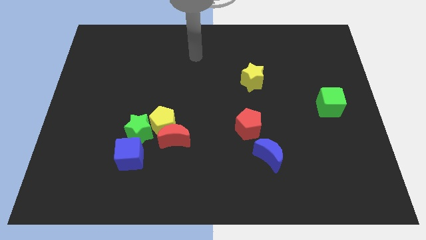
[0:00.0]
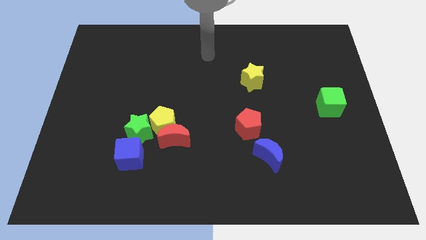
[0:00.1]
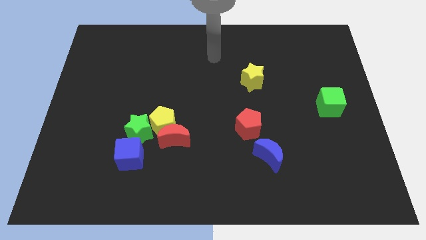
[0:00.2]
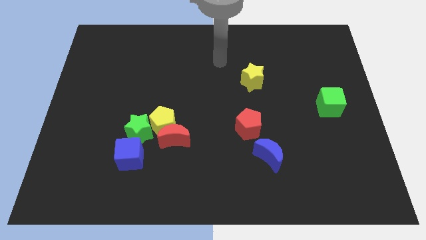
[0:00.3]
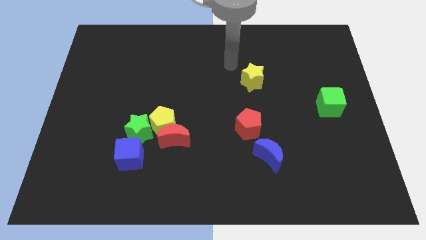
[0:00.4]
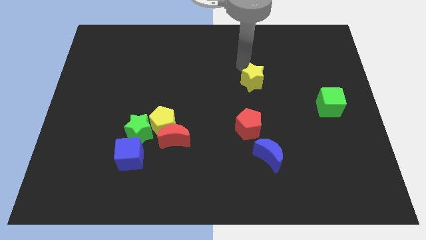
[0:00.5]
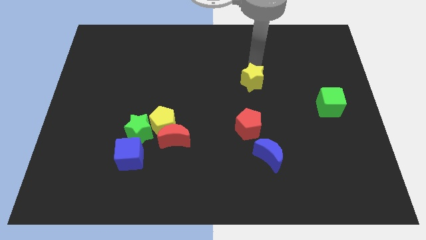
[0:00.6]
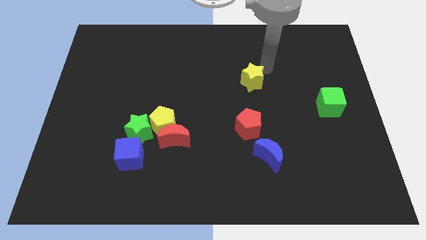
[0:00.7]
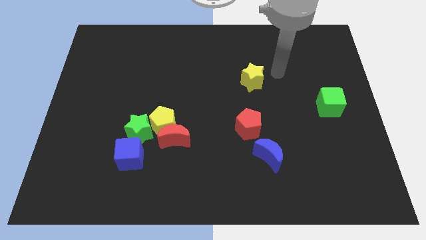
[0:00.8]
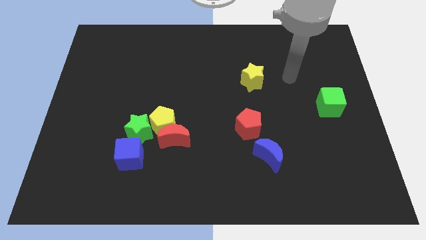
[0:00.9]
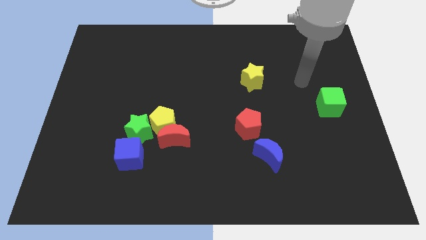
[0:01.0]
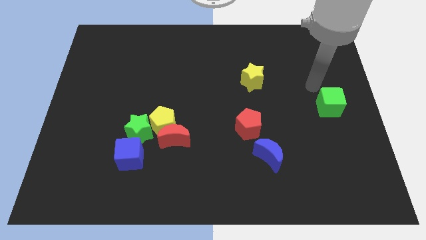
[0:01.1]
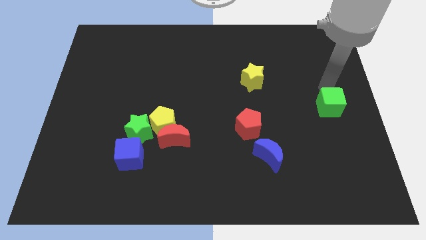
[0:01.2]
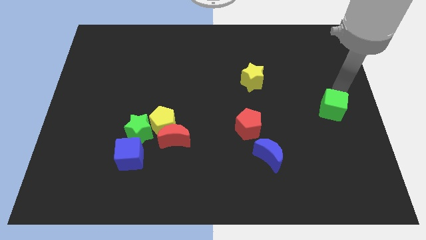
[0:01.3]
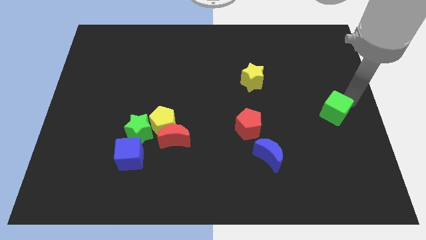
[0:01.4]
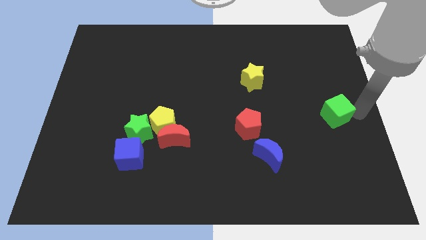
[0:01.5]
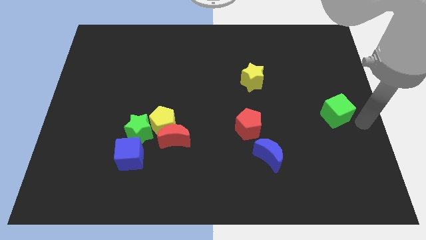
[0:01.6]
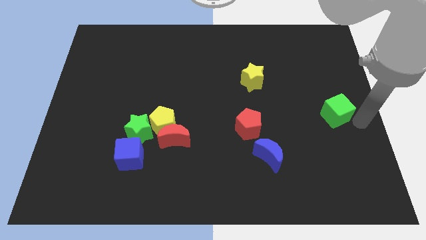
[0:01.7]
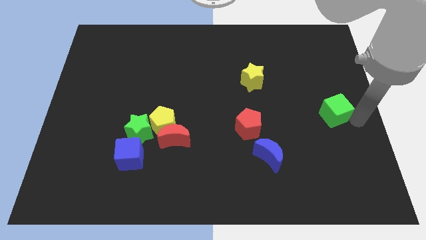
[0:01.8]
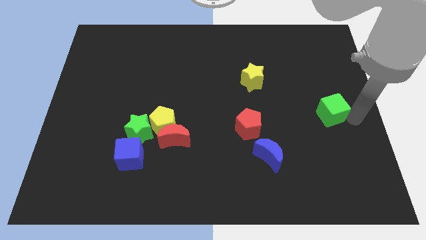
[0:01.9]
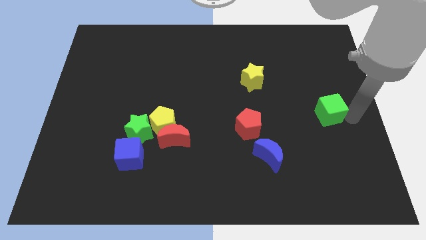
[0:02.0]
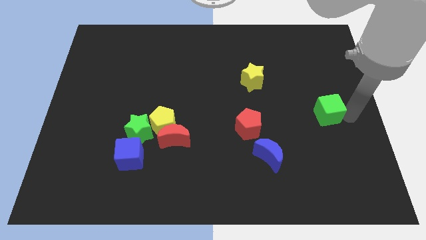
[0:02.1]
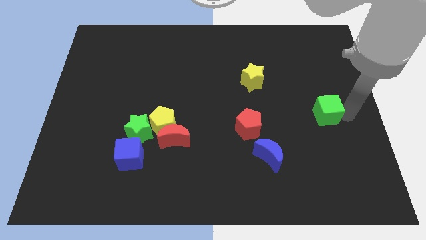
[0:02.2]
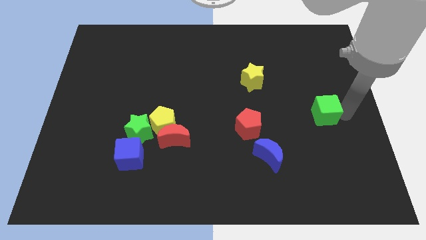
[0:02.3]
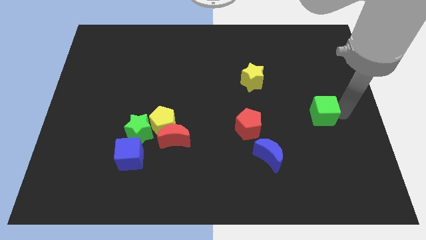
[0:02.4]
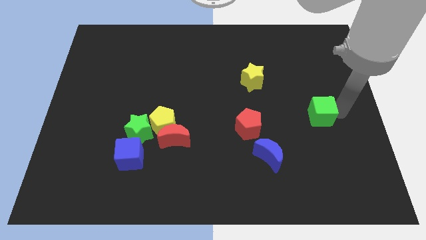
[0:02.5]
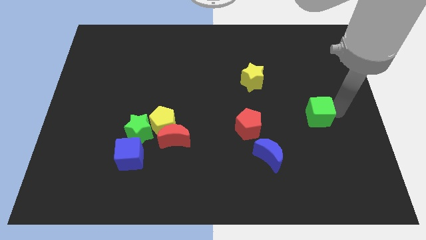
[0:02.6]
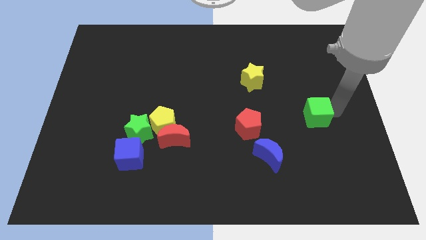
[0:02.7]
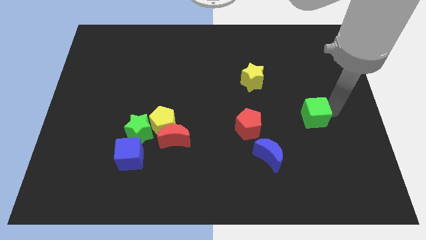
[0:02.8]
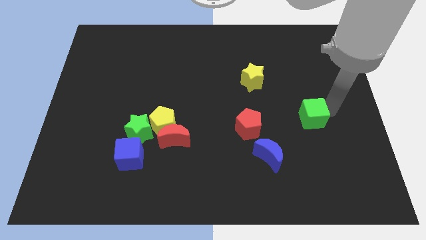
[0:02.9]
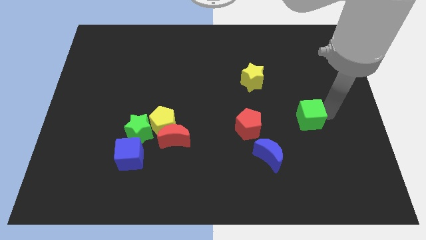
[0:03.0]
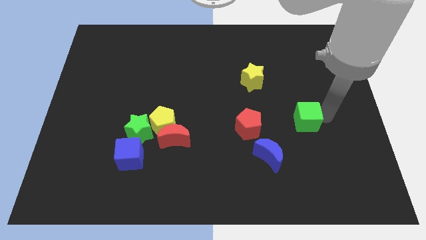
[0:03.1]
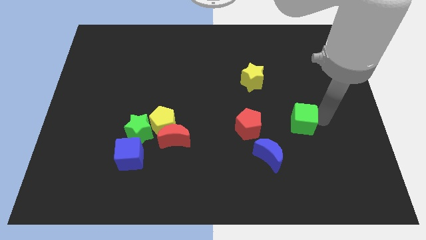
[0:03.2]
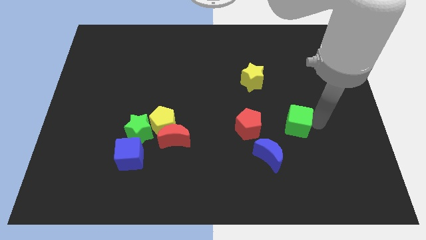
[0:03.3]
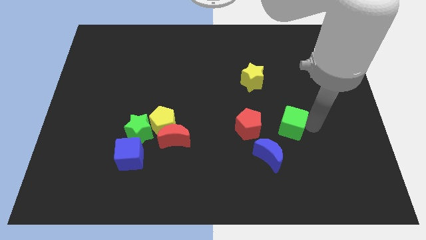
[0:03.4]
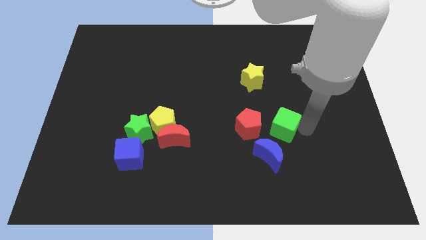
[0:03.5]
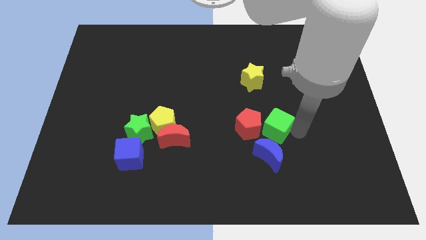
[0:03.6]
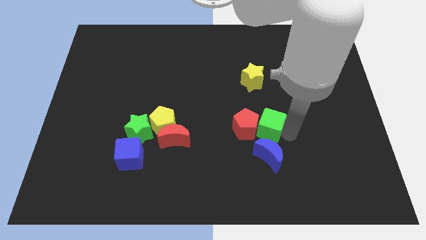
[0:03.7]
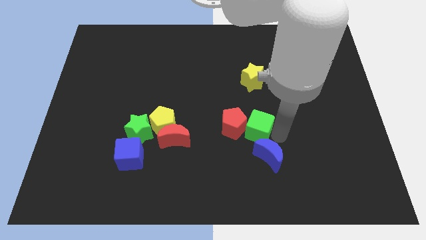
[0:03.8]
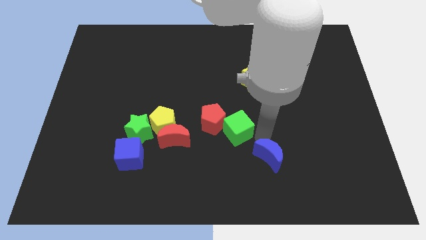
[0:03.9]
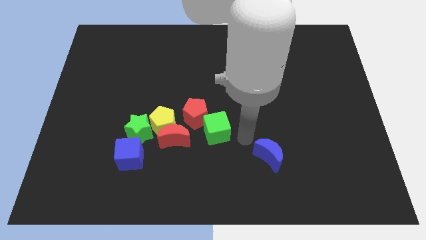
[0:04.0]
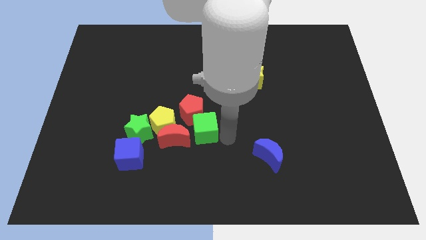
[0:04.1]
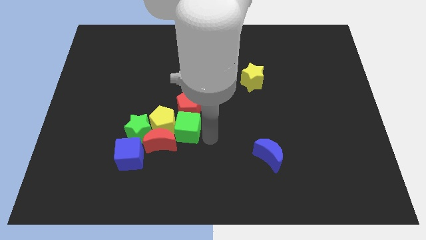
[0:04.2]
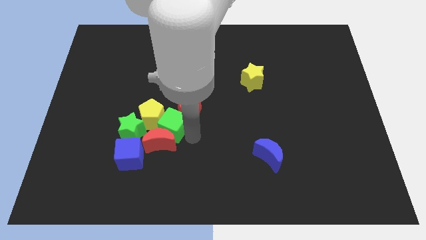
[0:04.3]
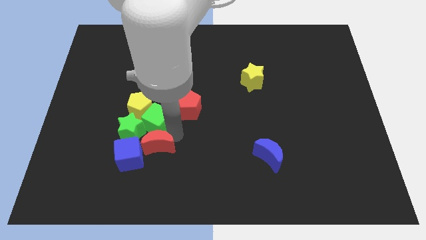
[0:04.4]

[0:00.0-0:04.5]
move the green cube next to the green star

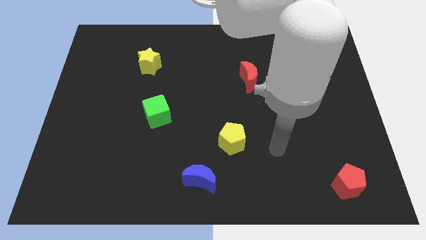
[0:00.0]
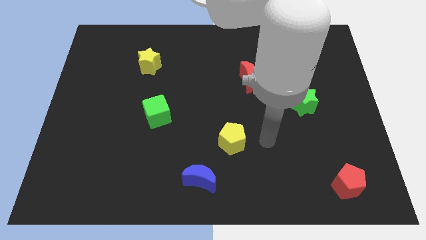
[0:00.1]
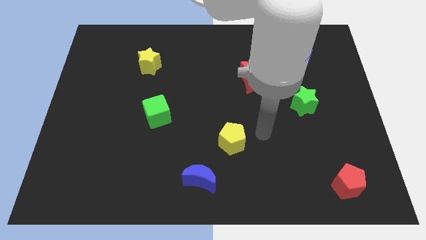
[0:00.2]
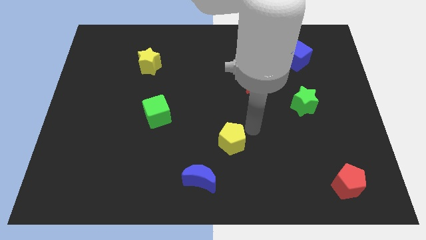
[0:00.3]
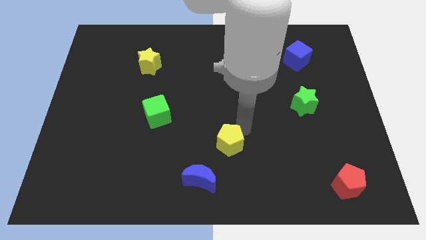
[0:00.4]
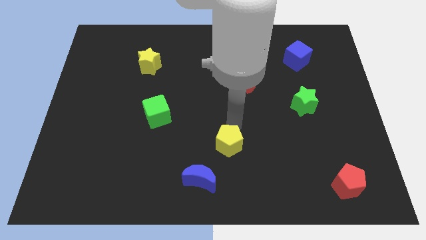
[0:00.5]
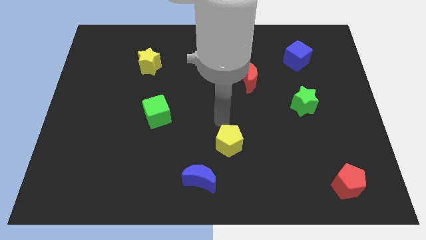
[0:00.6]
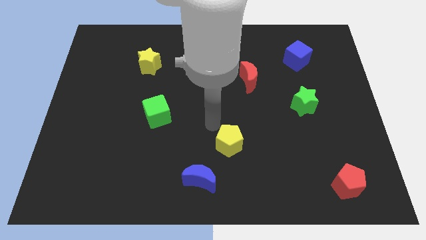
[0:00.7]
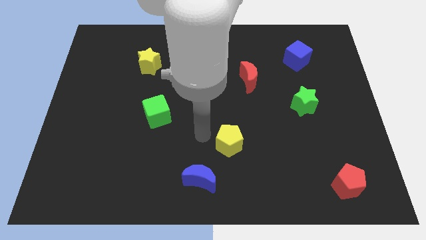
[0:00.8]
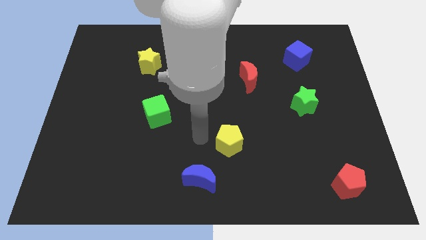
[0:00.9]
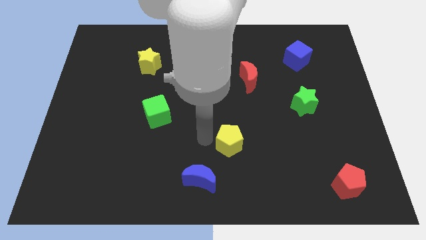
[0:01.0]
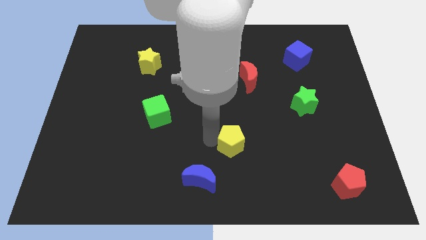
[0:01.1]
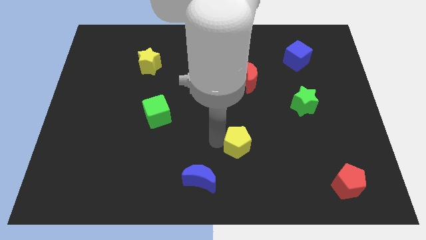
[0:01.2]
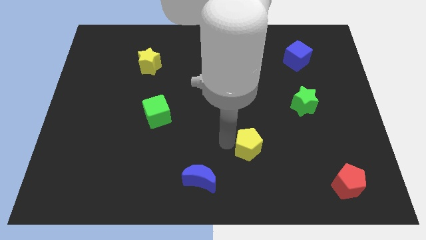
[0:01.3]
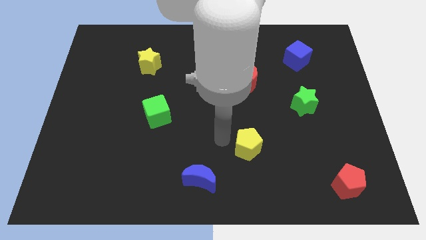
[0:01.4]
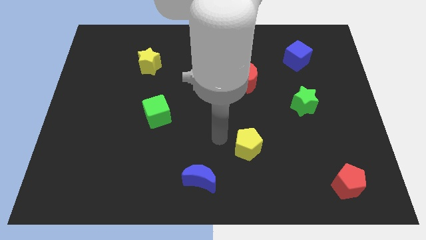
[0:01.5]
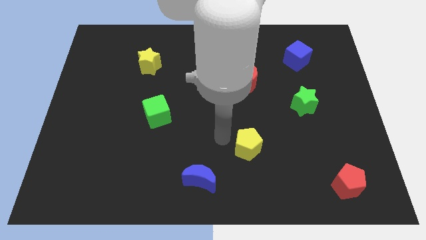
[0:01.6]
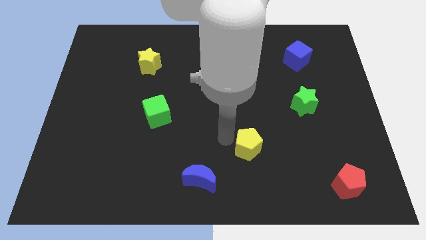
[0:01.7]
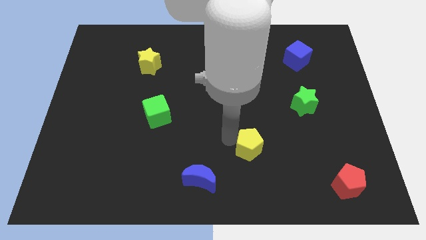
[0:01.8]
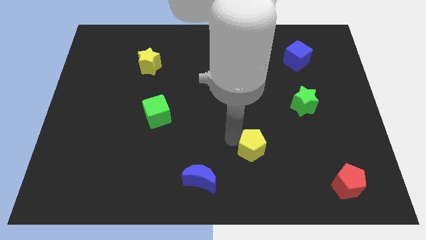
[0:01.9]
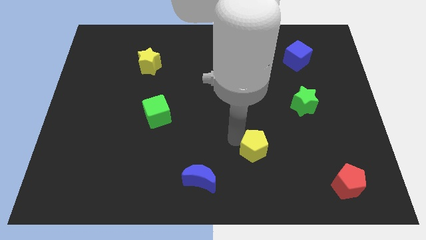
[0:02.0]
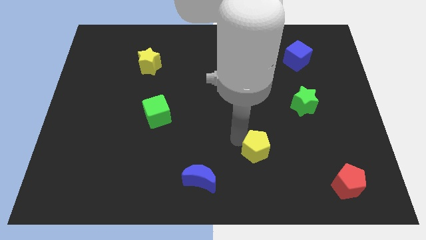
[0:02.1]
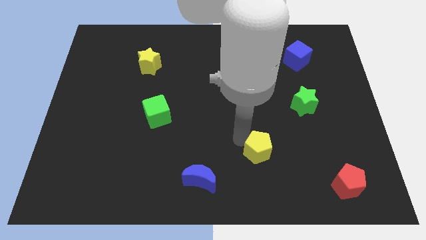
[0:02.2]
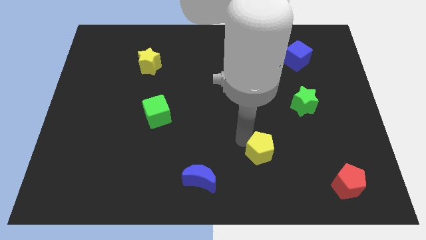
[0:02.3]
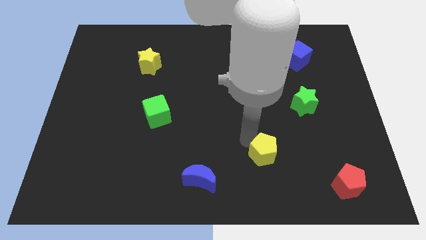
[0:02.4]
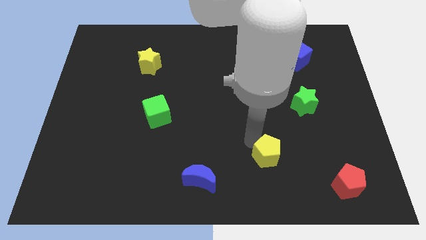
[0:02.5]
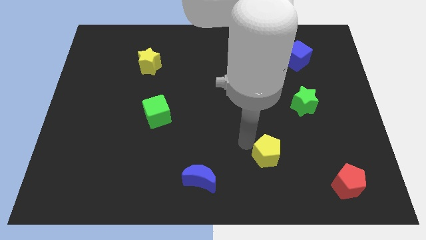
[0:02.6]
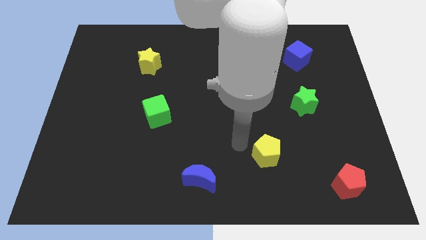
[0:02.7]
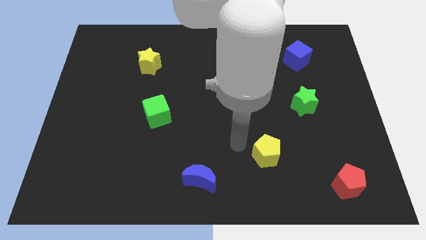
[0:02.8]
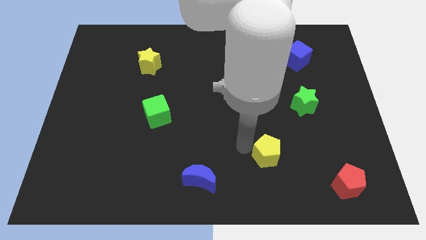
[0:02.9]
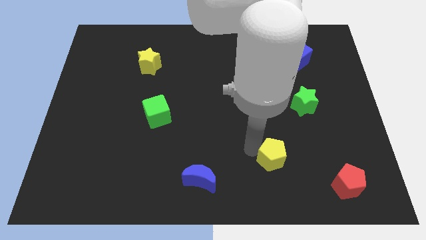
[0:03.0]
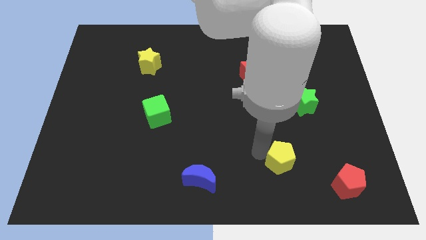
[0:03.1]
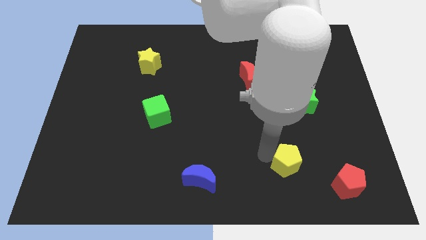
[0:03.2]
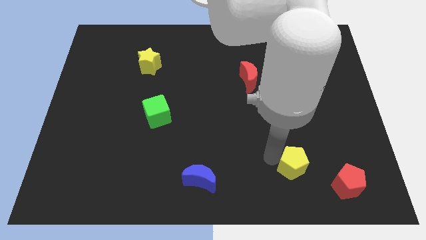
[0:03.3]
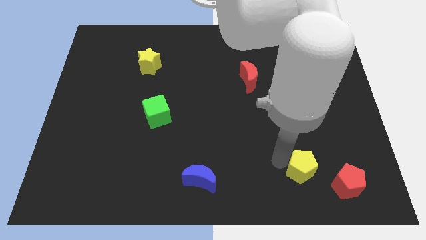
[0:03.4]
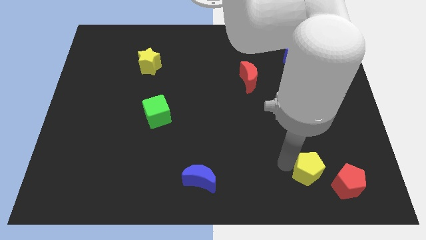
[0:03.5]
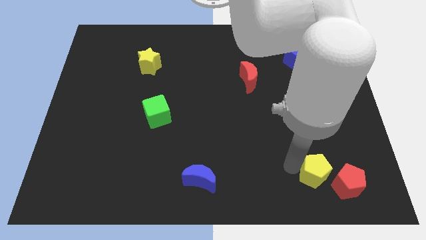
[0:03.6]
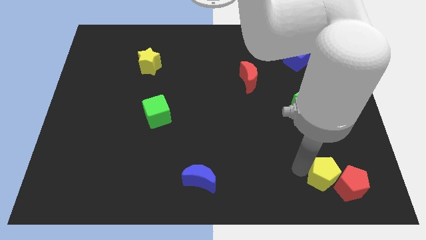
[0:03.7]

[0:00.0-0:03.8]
move the yellow pentagon next to the red pentagon

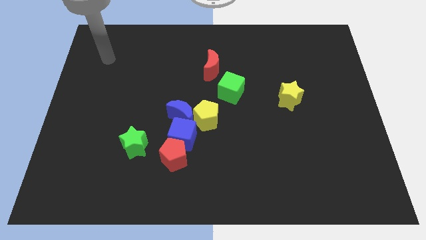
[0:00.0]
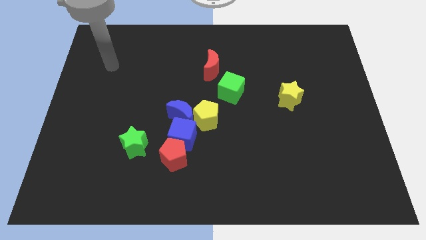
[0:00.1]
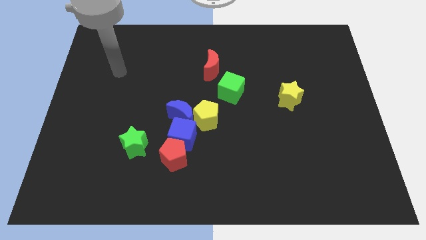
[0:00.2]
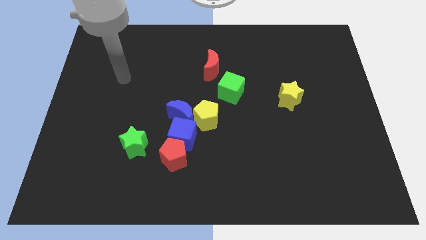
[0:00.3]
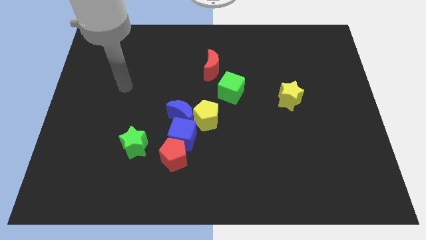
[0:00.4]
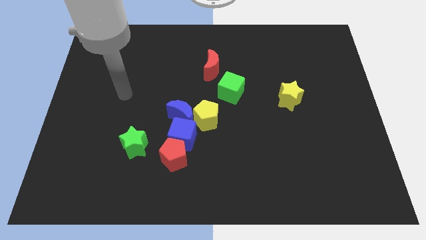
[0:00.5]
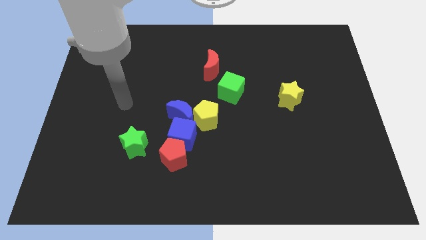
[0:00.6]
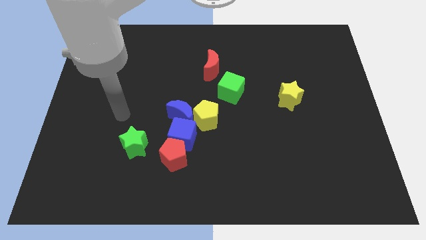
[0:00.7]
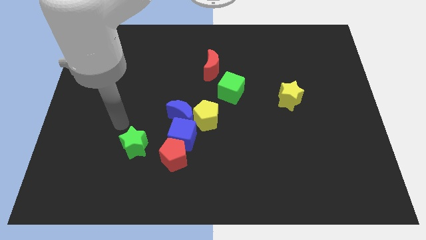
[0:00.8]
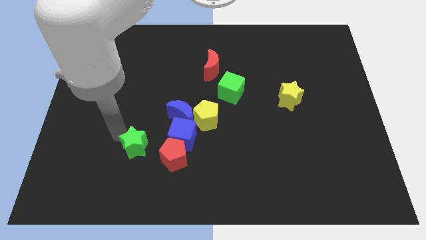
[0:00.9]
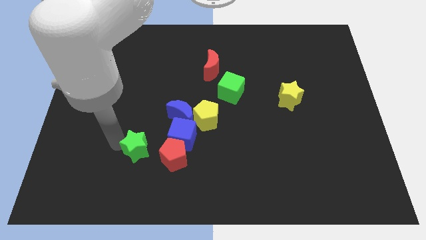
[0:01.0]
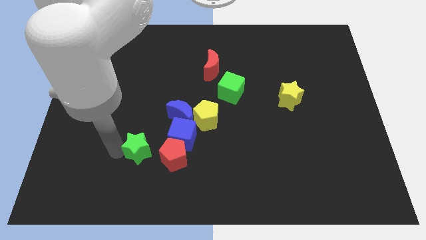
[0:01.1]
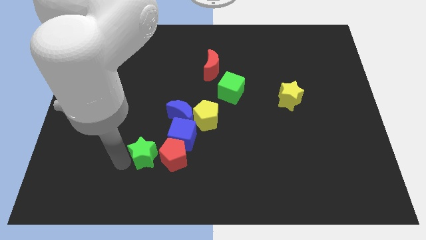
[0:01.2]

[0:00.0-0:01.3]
move the red pentagon close to the green star
